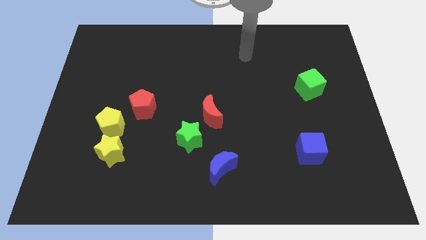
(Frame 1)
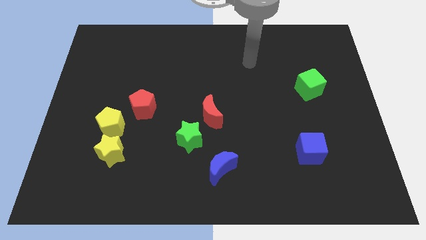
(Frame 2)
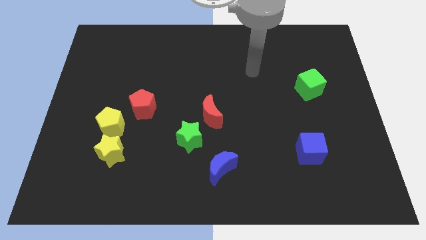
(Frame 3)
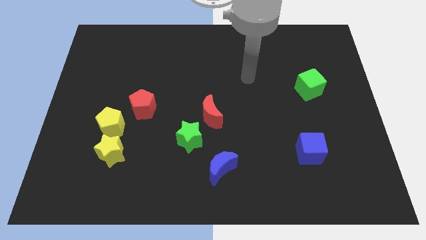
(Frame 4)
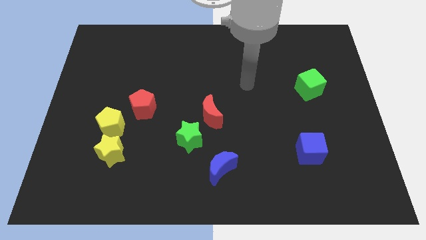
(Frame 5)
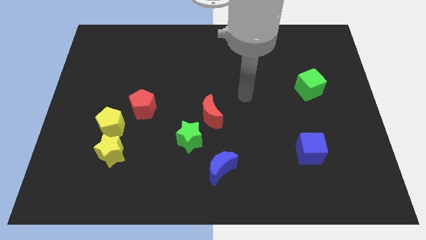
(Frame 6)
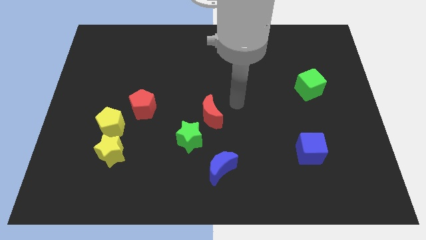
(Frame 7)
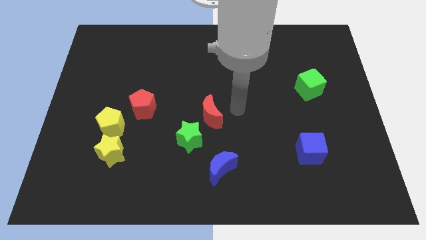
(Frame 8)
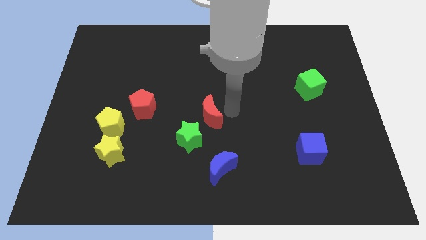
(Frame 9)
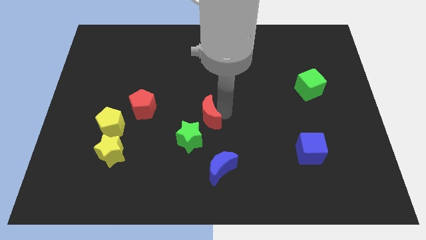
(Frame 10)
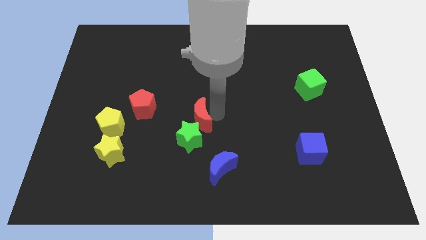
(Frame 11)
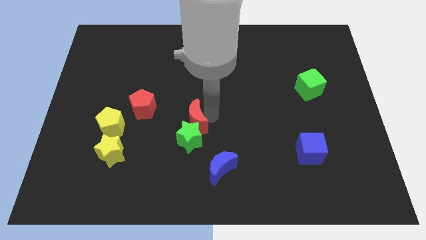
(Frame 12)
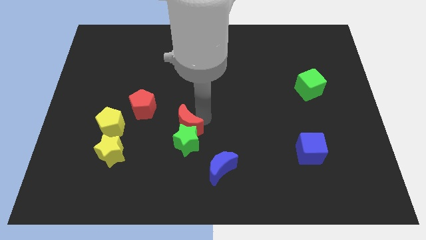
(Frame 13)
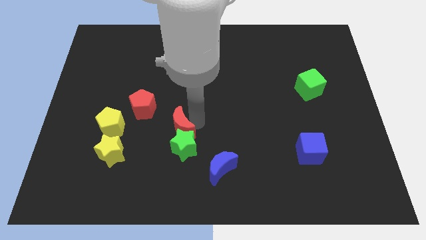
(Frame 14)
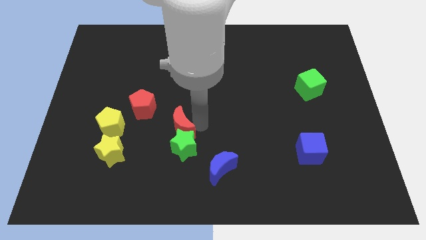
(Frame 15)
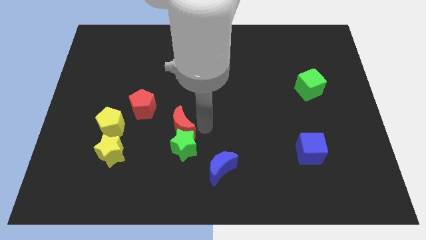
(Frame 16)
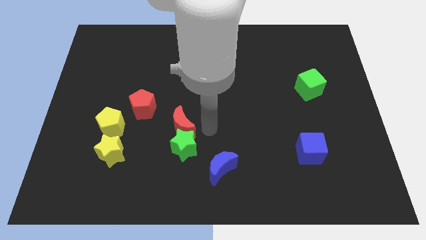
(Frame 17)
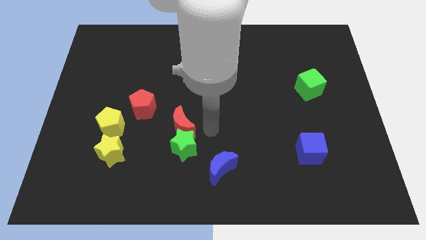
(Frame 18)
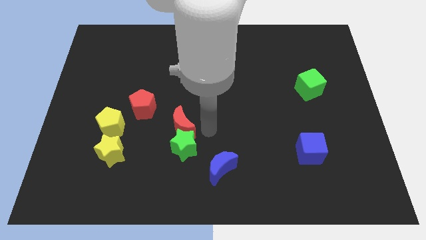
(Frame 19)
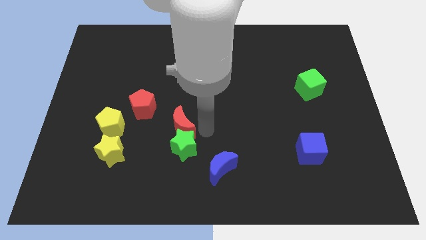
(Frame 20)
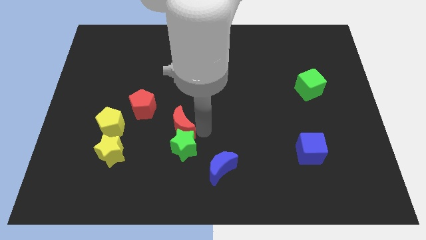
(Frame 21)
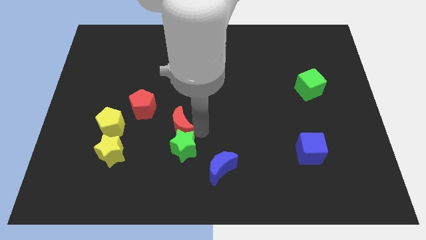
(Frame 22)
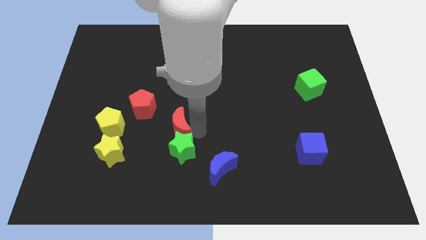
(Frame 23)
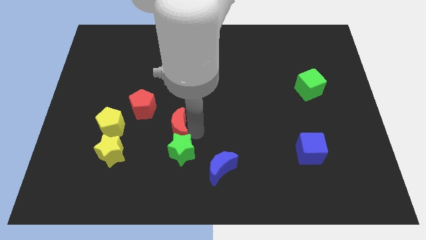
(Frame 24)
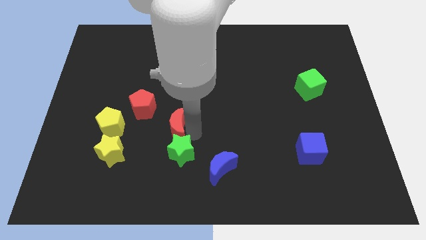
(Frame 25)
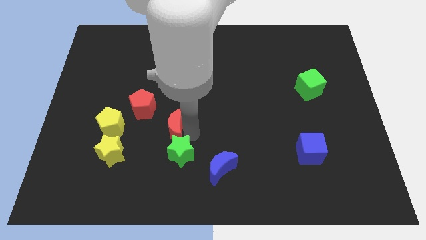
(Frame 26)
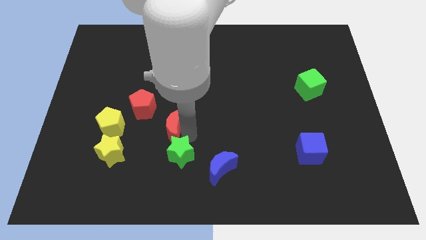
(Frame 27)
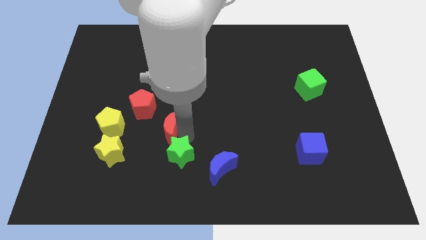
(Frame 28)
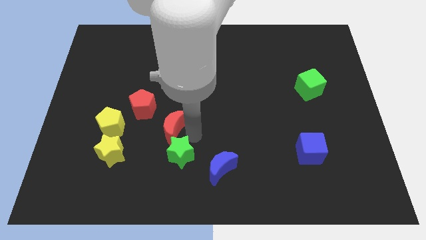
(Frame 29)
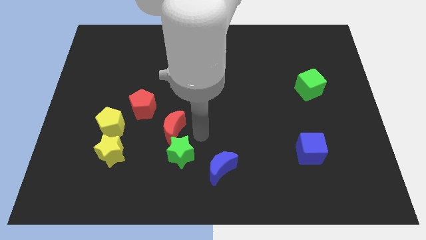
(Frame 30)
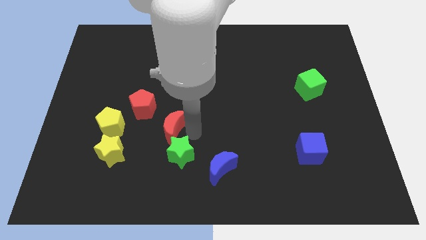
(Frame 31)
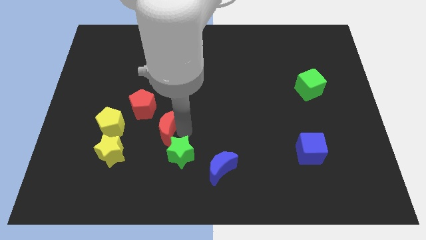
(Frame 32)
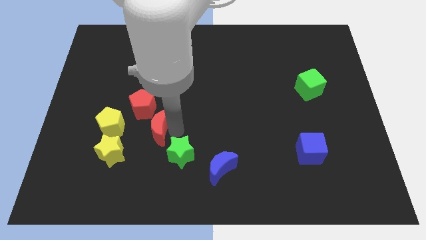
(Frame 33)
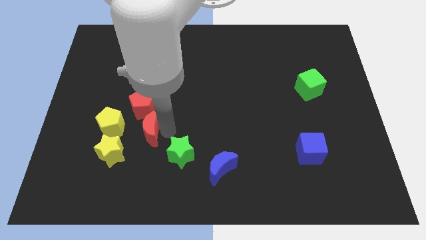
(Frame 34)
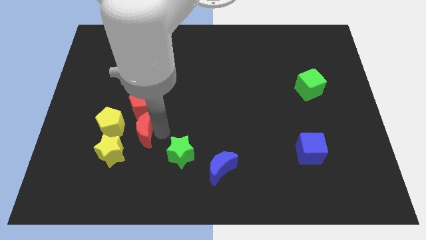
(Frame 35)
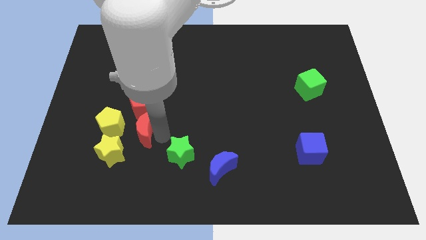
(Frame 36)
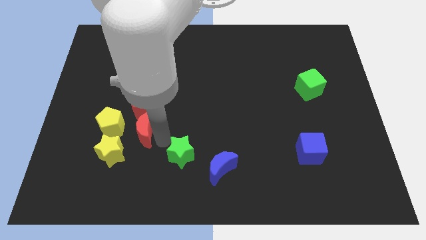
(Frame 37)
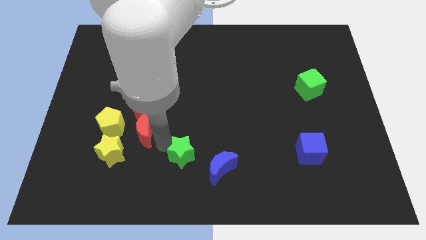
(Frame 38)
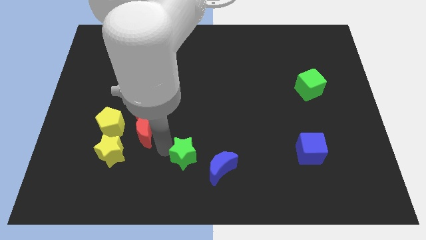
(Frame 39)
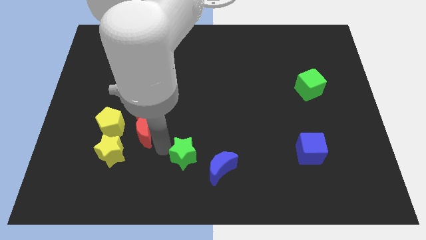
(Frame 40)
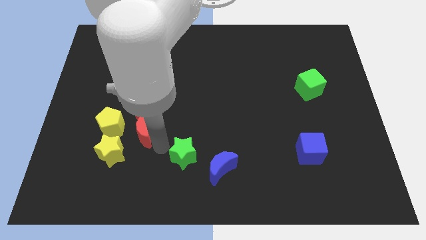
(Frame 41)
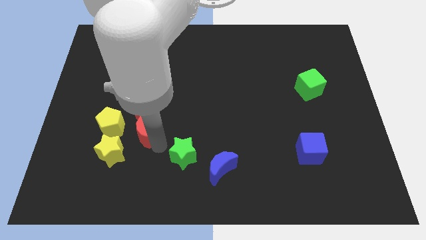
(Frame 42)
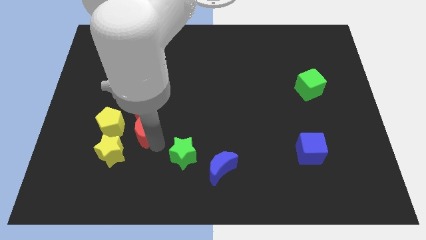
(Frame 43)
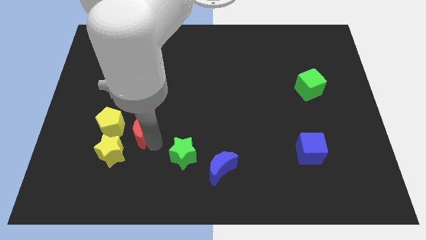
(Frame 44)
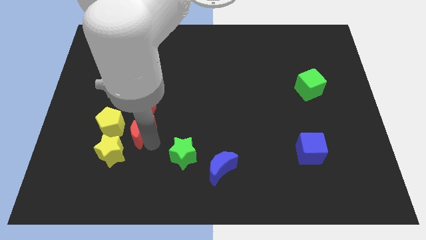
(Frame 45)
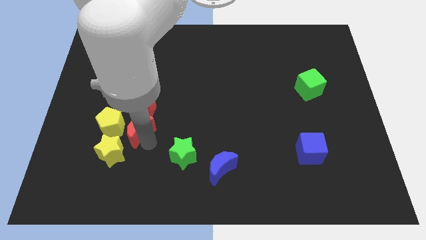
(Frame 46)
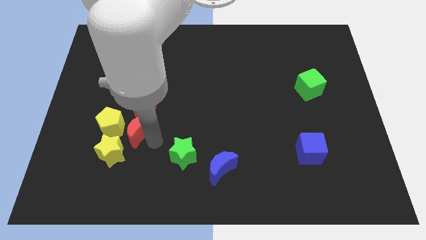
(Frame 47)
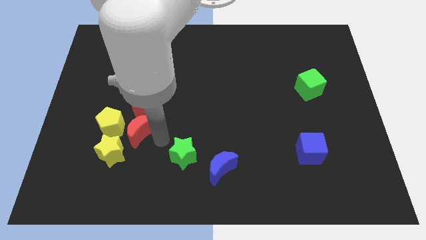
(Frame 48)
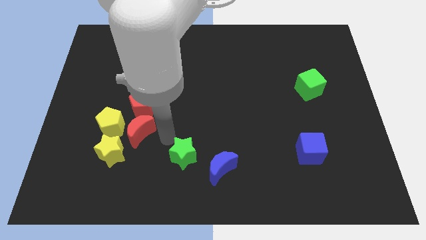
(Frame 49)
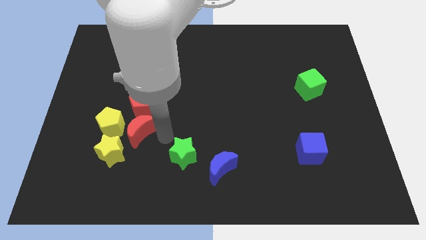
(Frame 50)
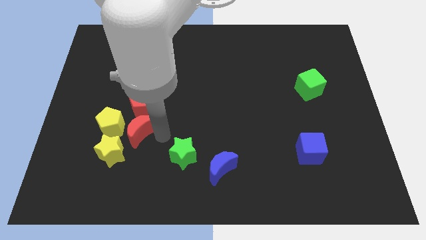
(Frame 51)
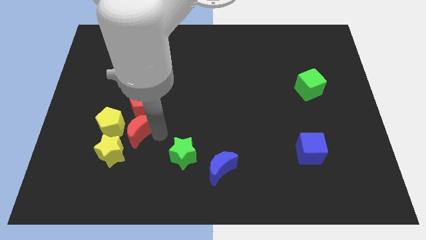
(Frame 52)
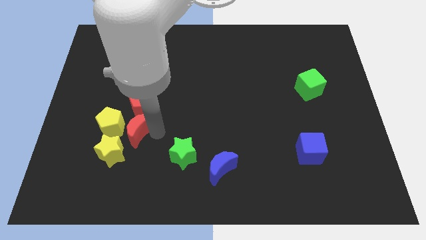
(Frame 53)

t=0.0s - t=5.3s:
slide the red moon towards the yellow pentagon

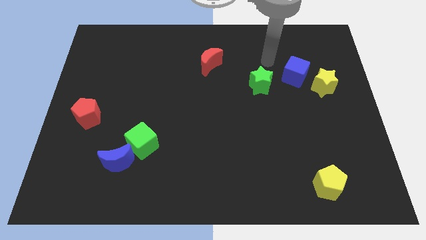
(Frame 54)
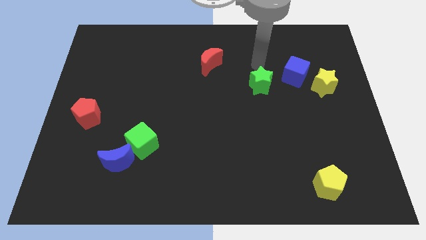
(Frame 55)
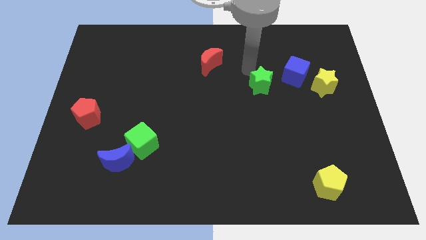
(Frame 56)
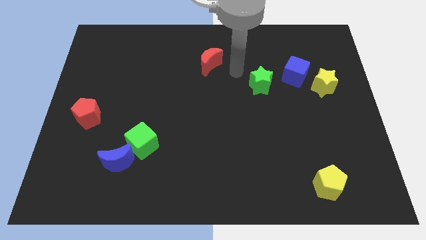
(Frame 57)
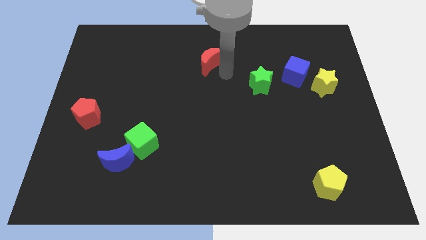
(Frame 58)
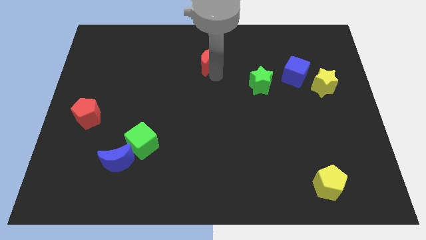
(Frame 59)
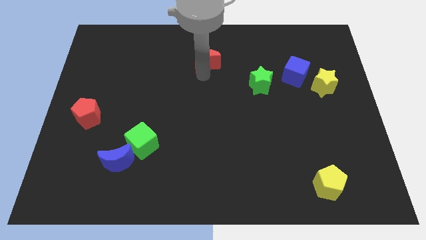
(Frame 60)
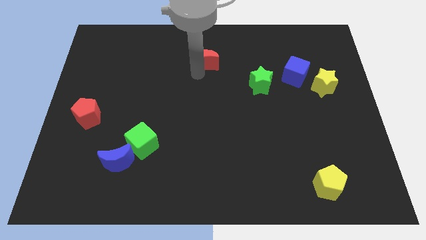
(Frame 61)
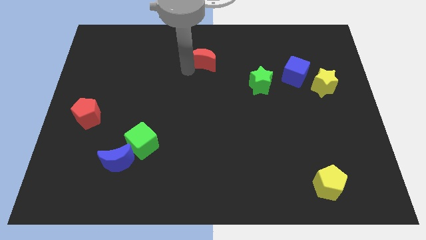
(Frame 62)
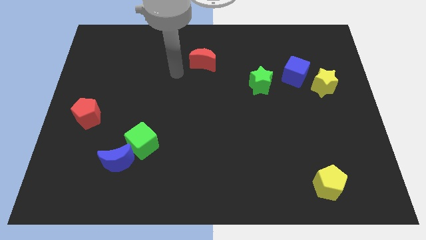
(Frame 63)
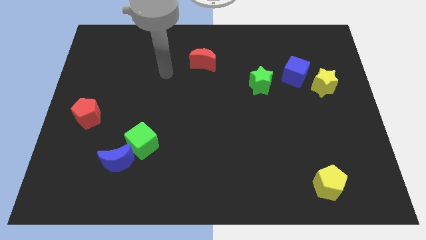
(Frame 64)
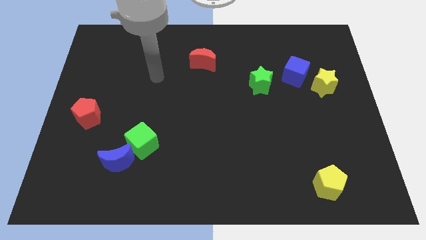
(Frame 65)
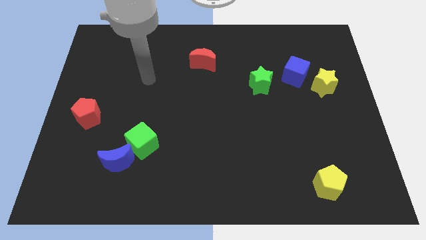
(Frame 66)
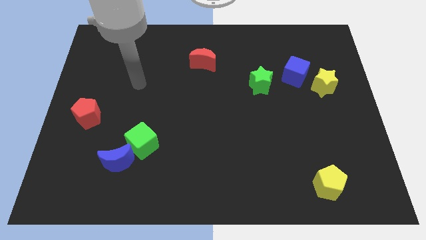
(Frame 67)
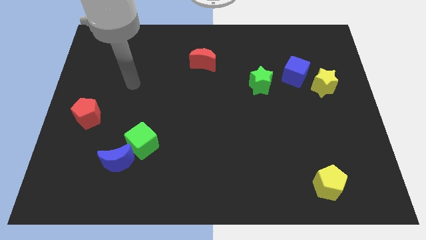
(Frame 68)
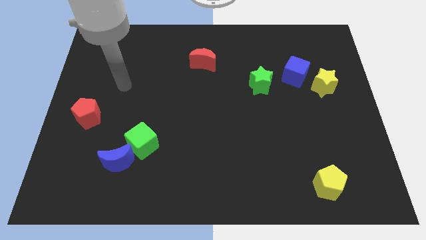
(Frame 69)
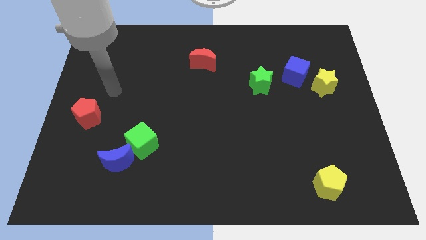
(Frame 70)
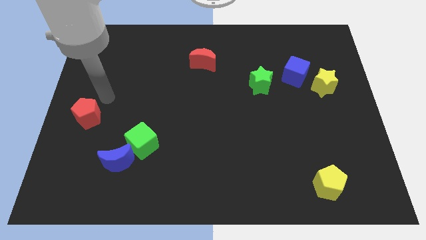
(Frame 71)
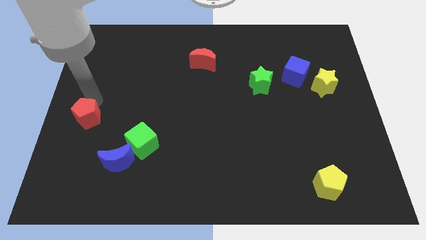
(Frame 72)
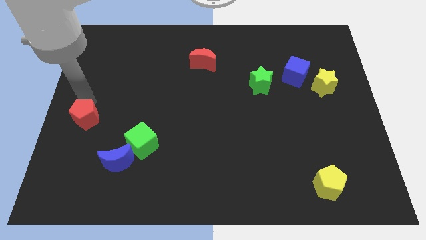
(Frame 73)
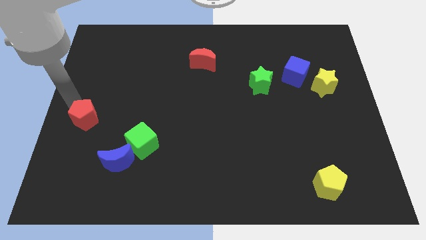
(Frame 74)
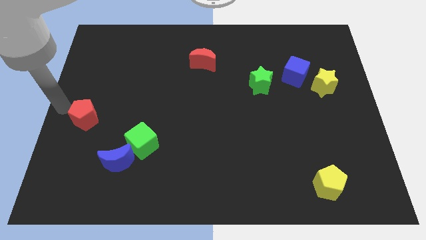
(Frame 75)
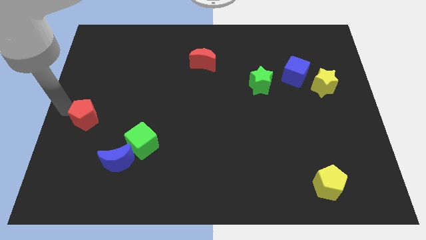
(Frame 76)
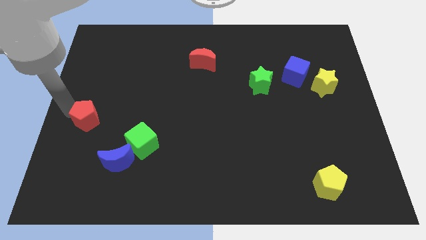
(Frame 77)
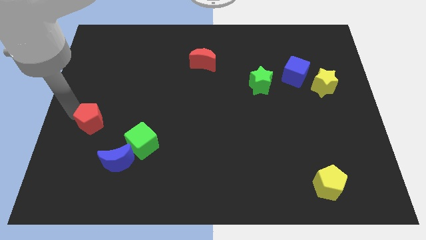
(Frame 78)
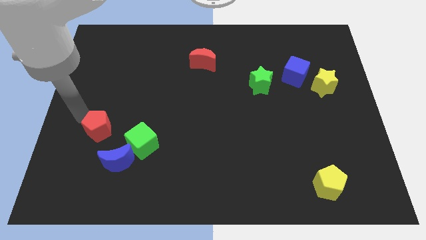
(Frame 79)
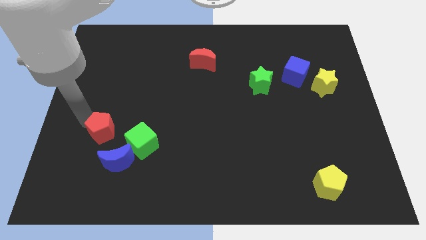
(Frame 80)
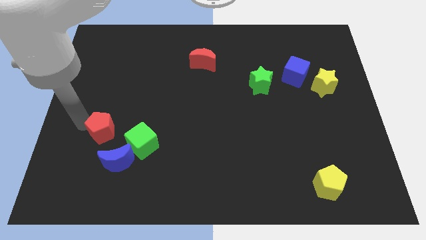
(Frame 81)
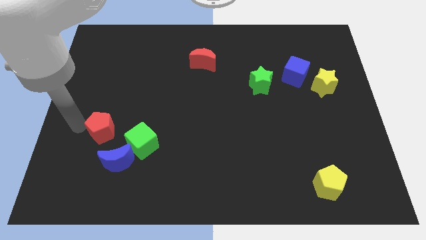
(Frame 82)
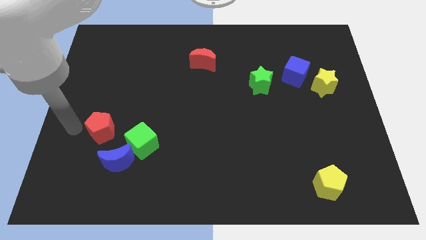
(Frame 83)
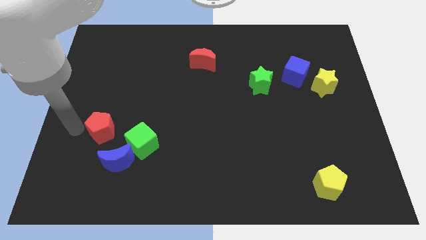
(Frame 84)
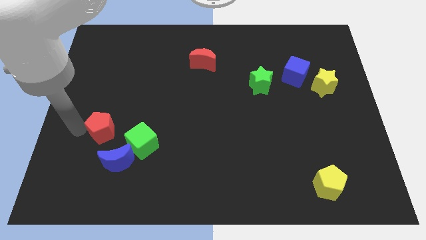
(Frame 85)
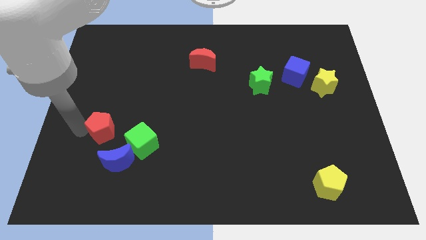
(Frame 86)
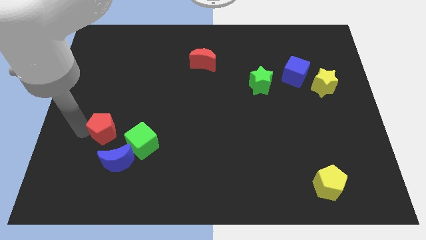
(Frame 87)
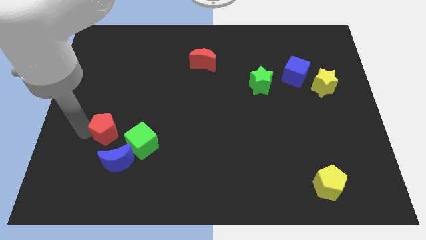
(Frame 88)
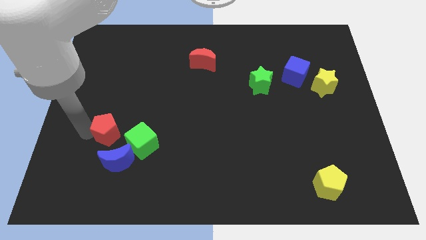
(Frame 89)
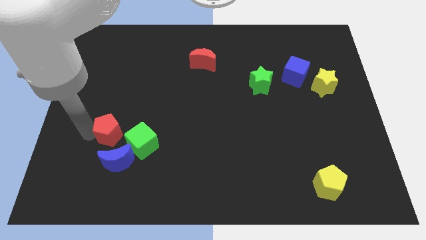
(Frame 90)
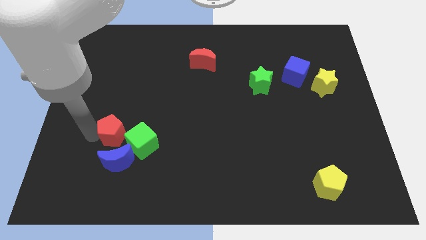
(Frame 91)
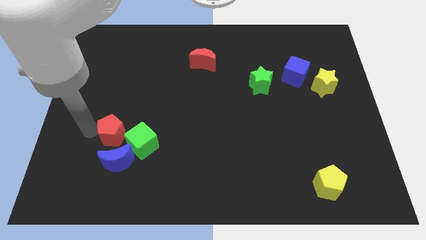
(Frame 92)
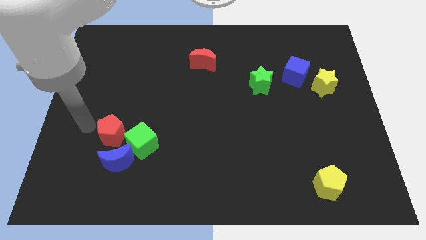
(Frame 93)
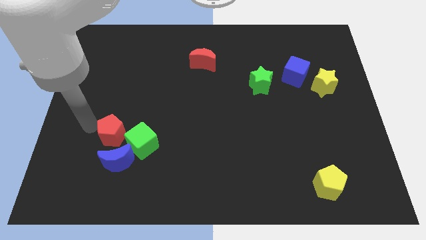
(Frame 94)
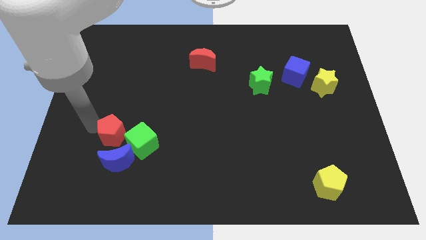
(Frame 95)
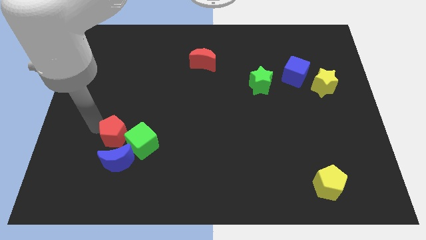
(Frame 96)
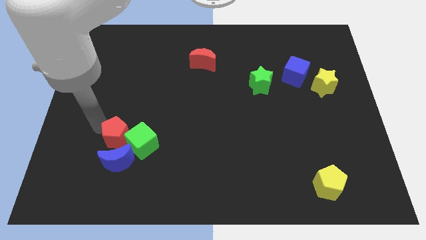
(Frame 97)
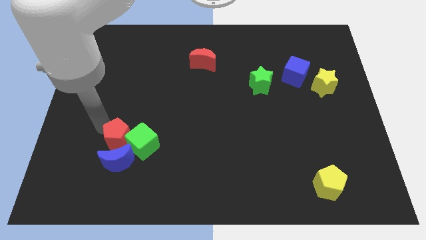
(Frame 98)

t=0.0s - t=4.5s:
move the red pentagon to the green cube
